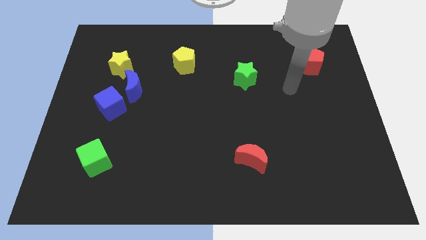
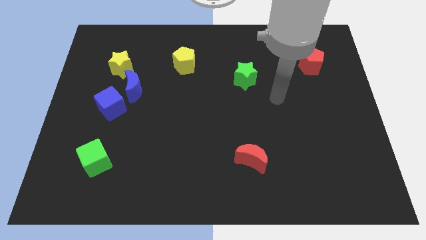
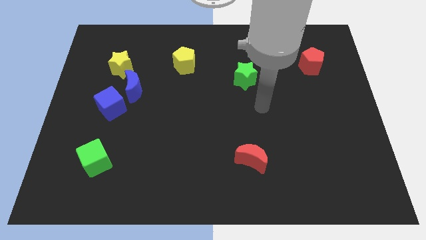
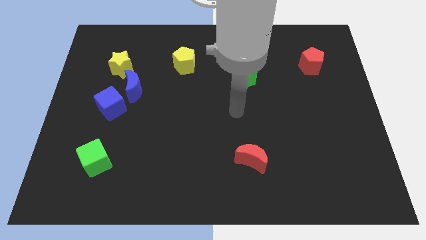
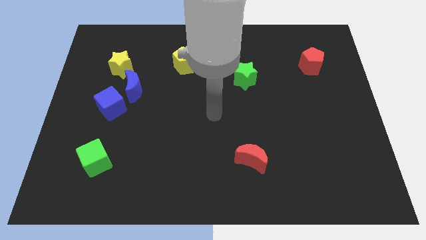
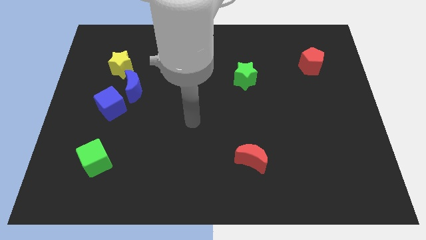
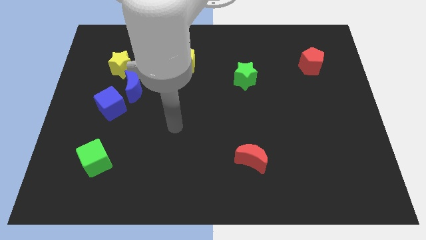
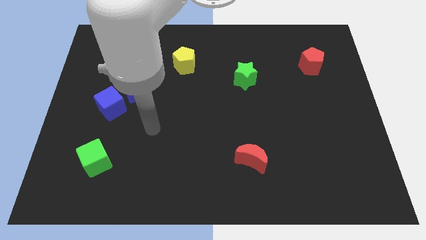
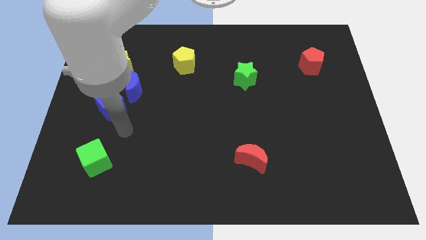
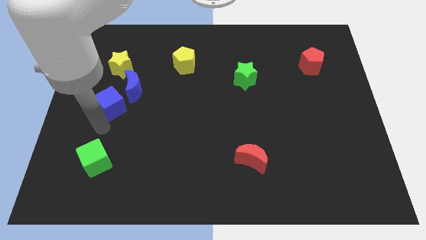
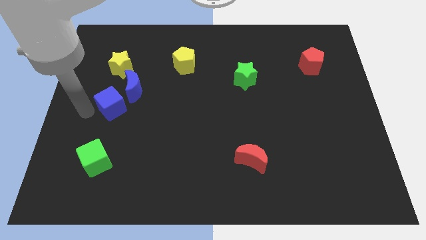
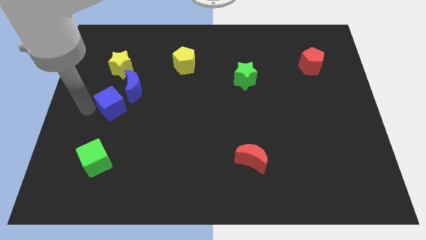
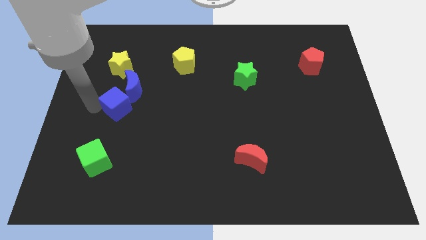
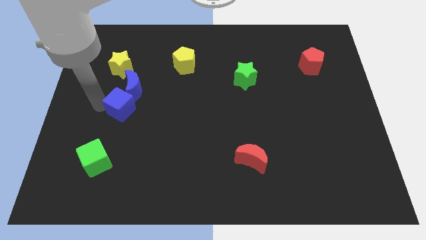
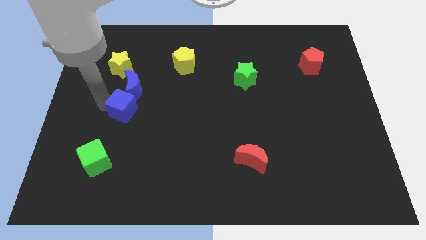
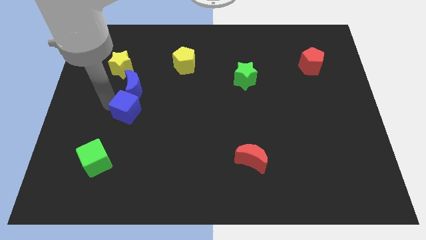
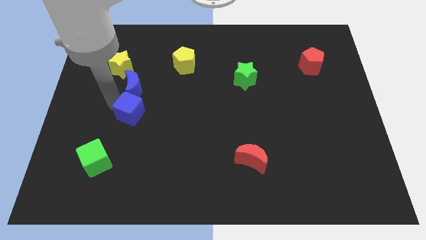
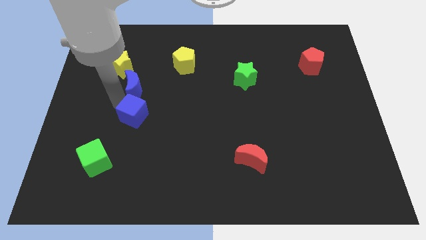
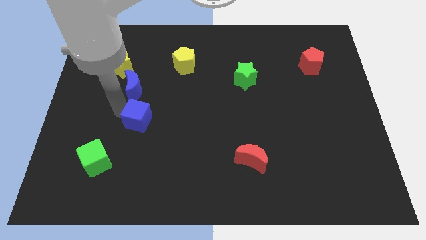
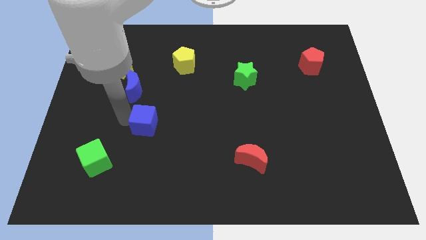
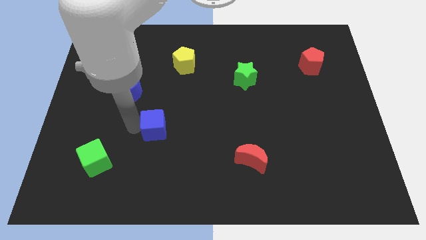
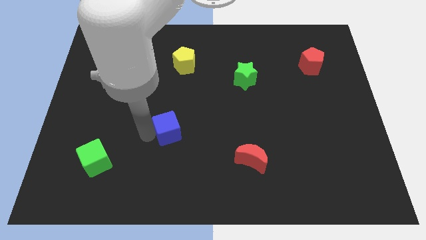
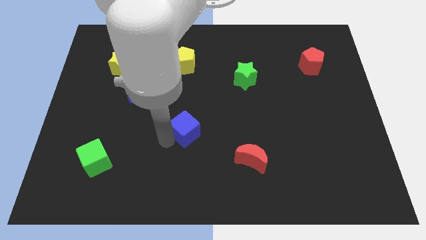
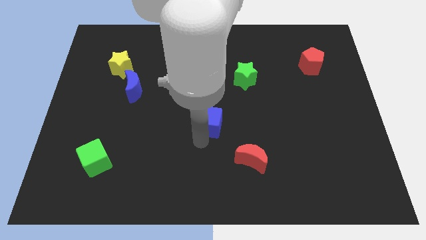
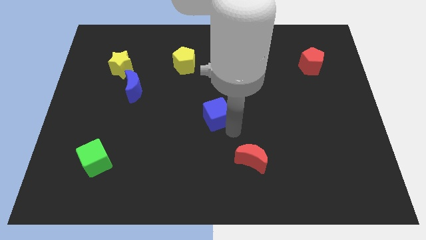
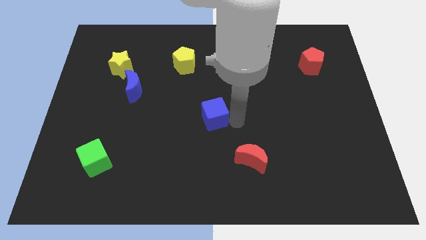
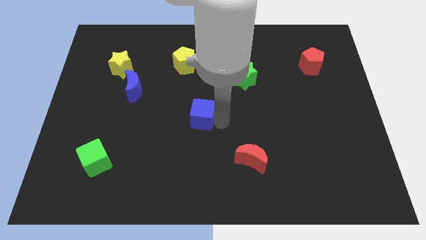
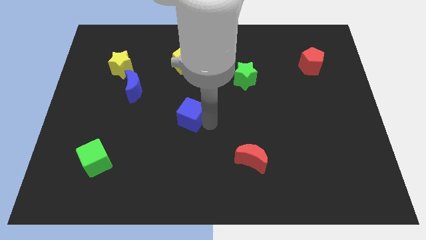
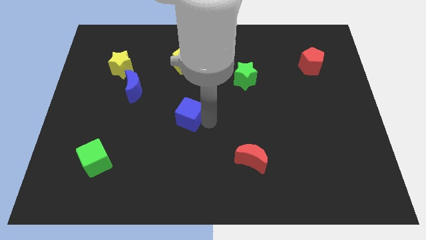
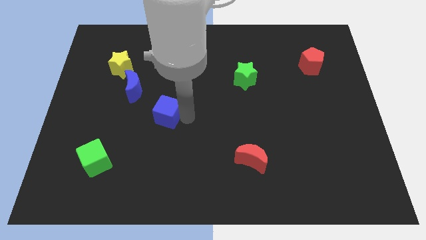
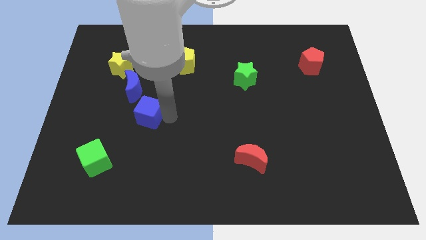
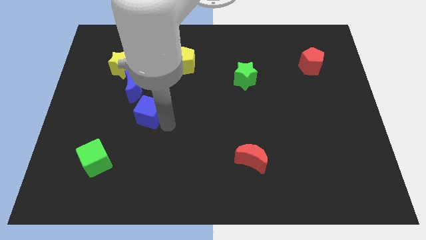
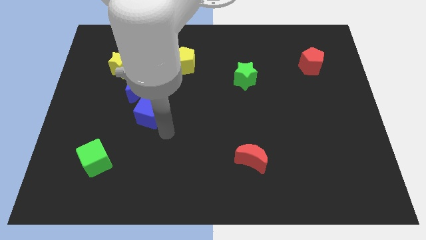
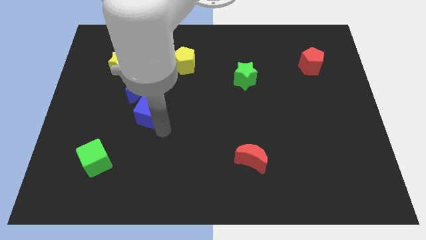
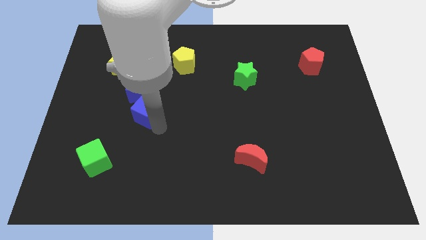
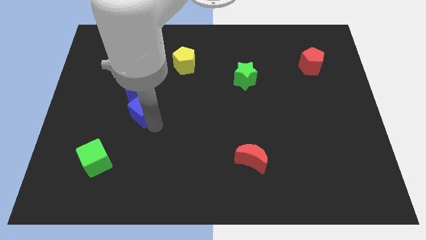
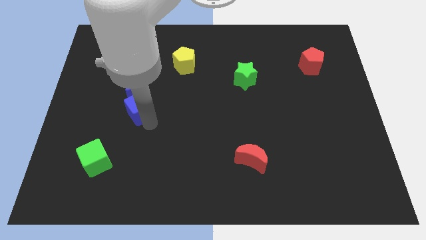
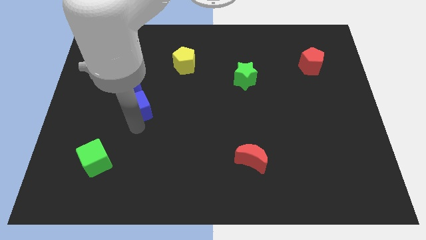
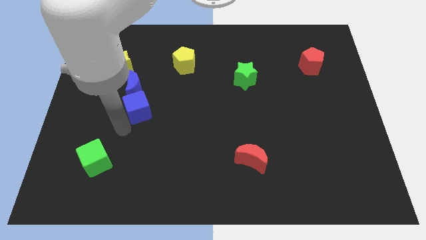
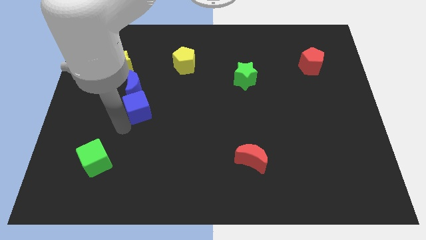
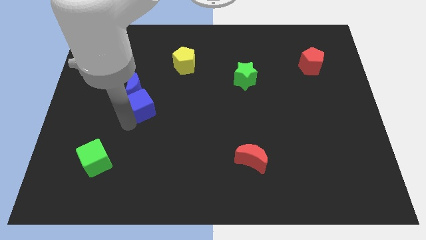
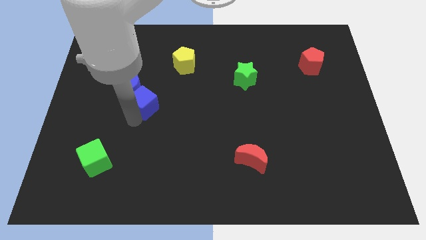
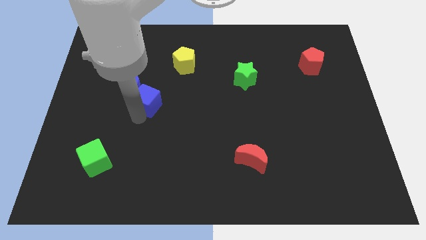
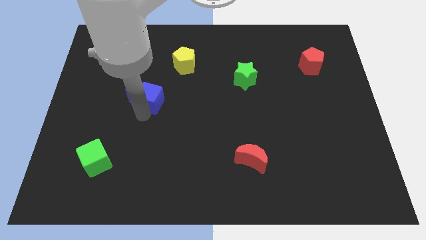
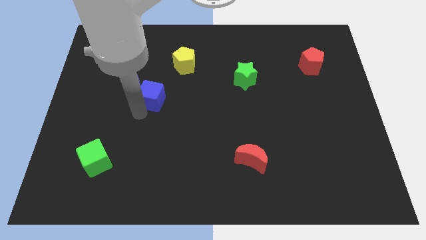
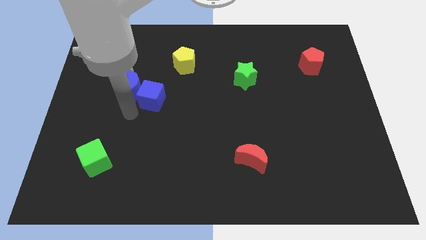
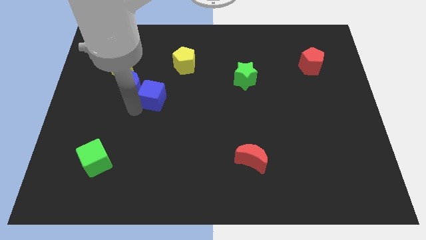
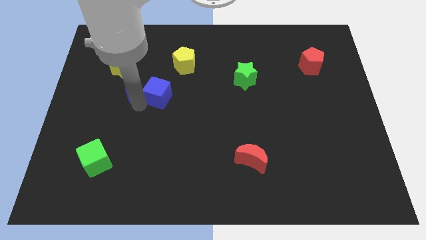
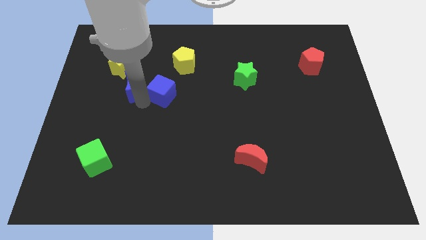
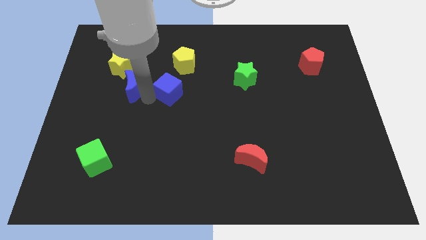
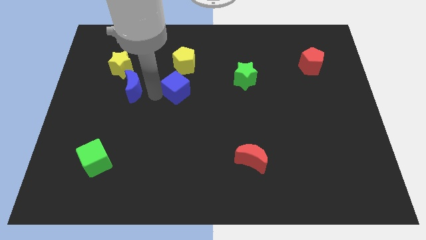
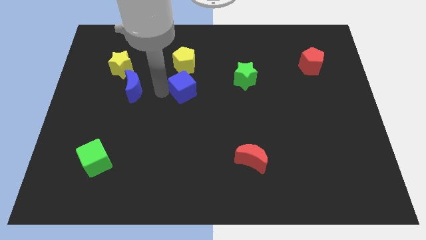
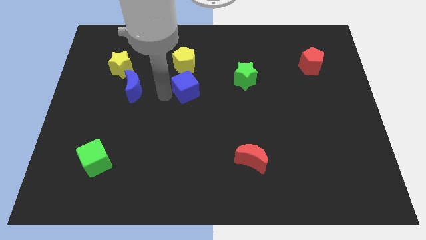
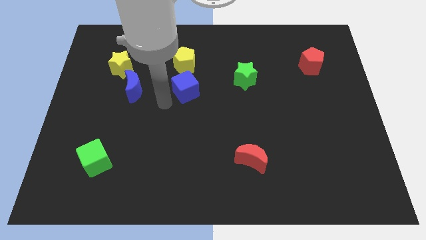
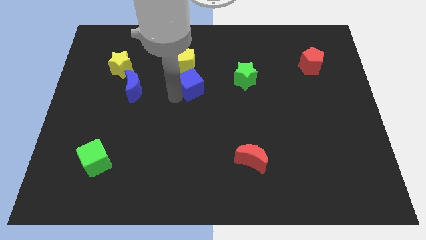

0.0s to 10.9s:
put the blue cube to the bottom right of the yellow pentagon

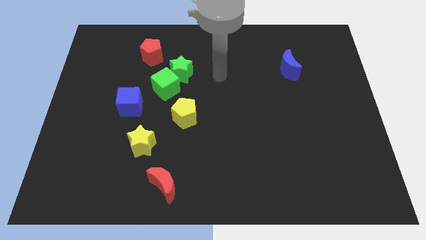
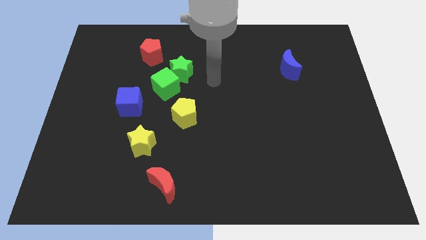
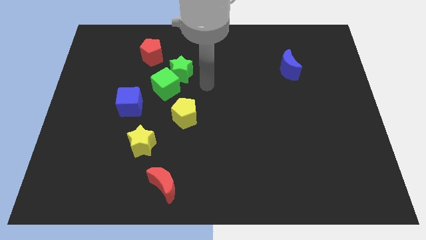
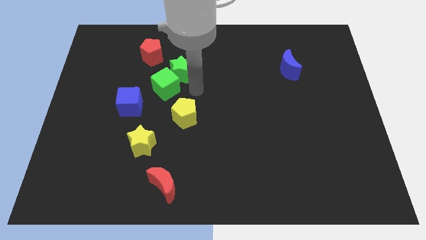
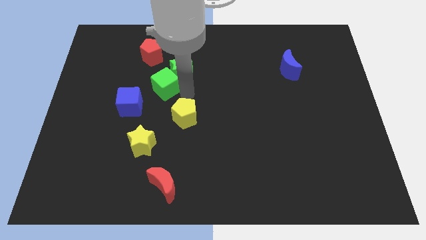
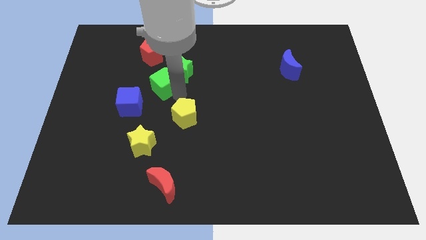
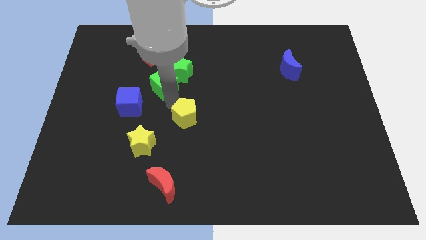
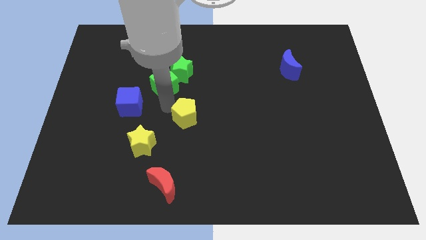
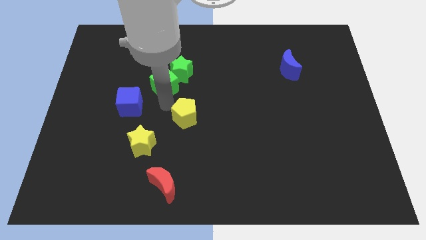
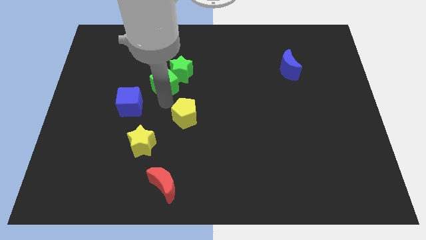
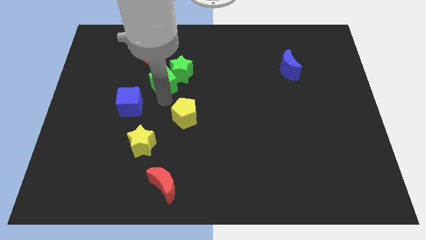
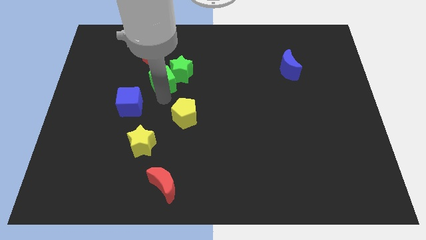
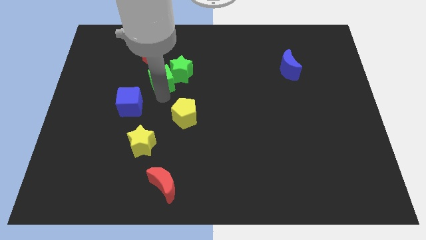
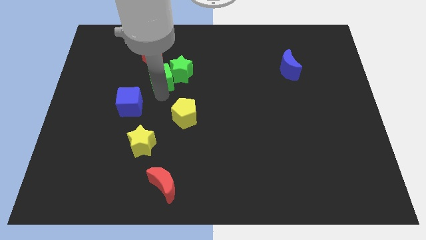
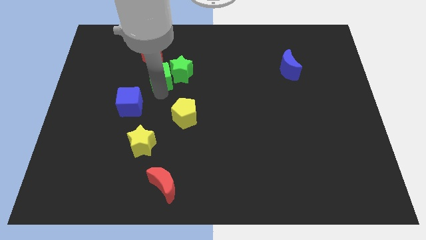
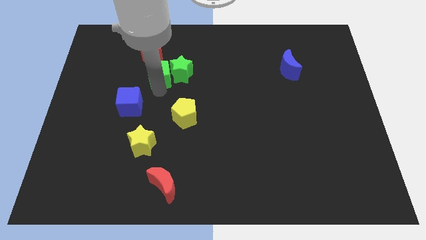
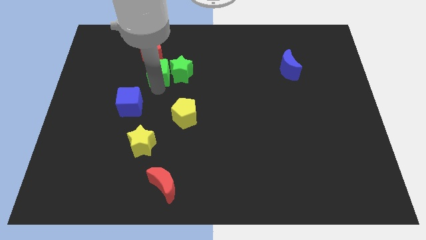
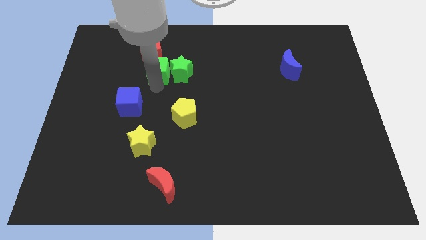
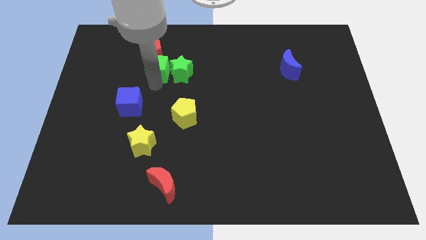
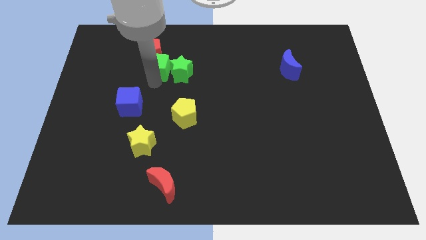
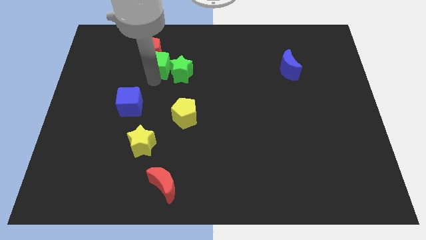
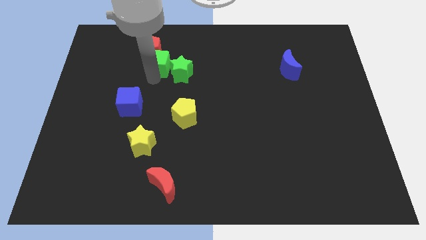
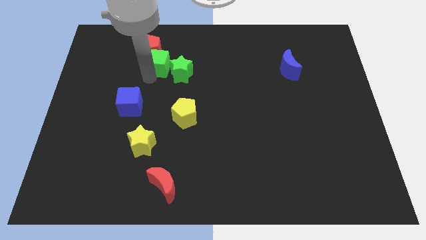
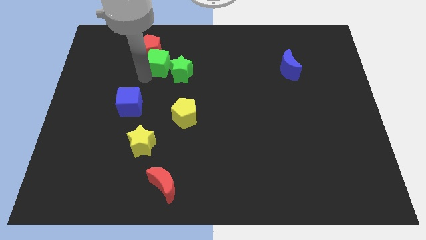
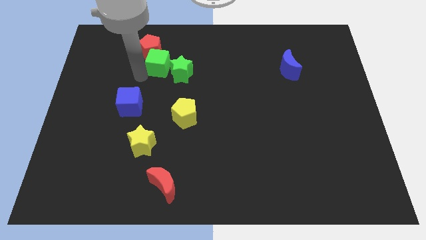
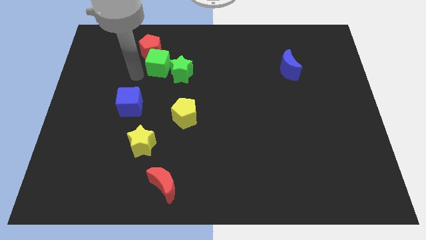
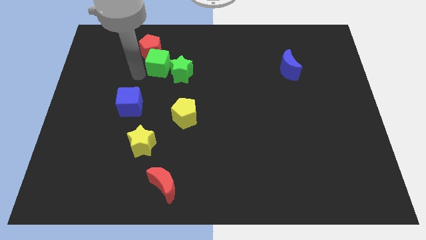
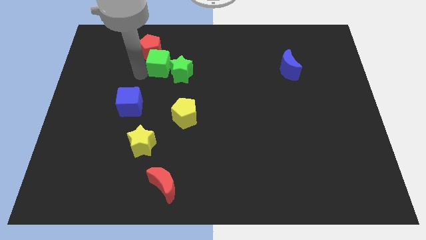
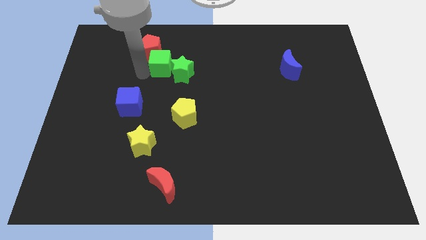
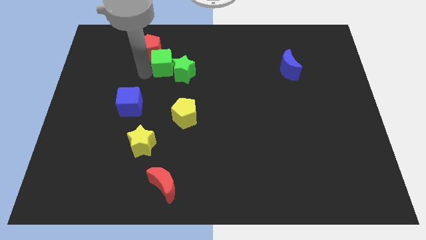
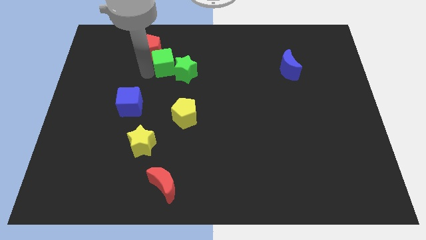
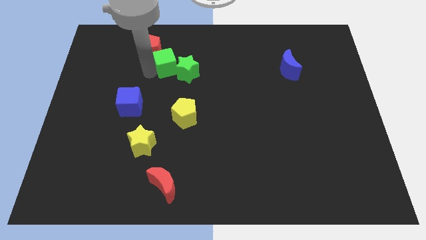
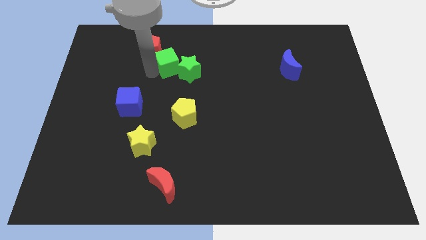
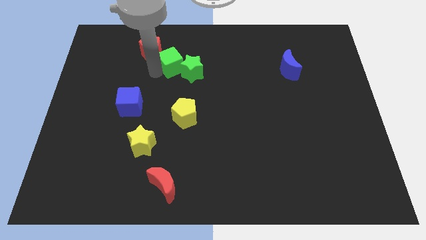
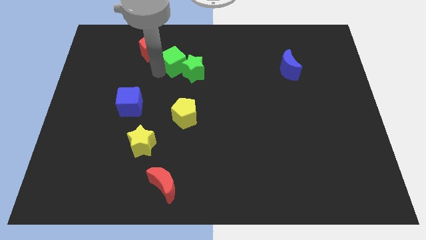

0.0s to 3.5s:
push the green cube right of the red pentagon
